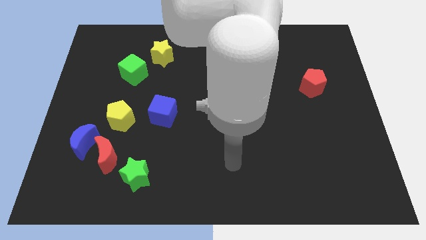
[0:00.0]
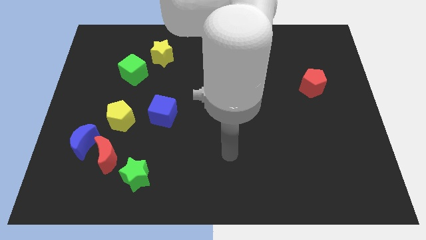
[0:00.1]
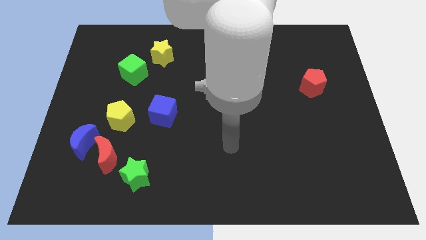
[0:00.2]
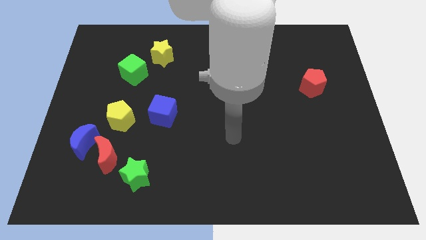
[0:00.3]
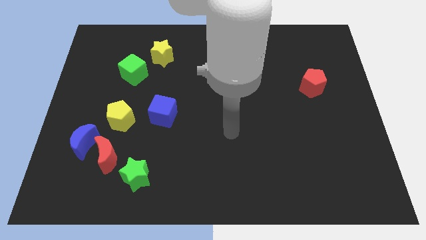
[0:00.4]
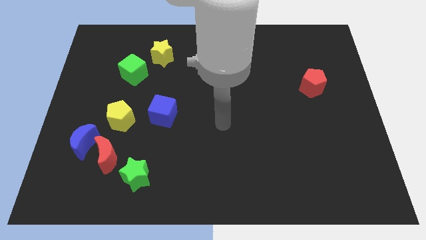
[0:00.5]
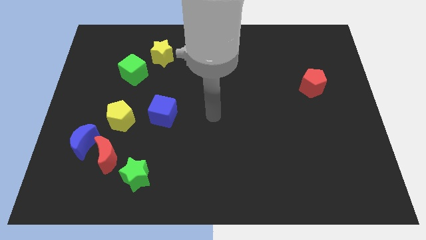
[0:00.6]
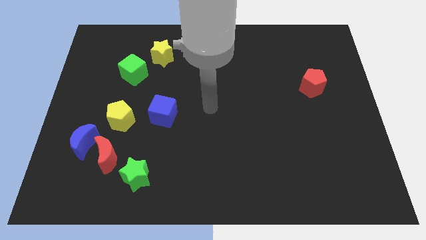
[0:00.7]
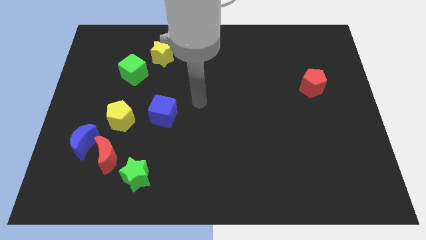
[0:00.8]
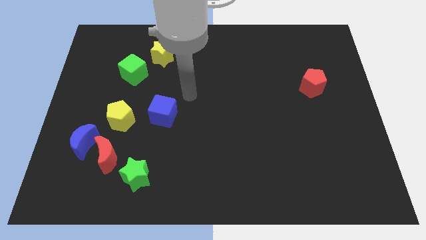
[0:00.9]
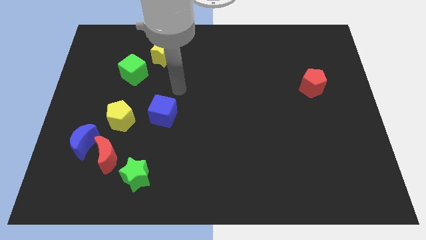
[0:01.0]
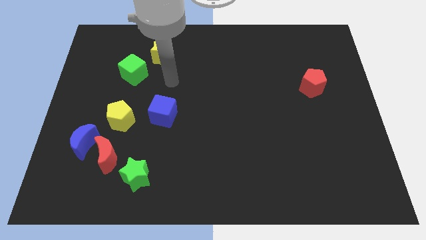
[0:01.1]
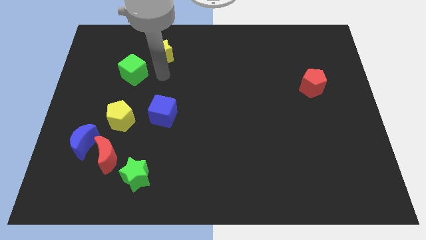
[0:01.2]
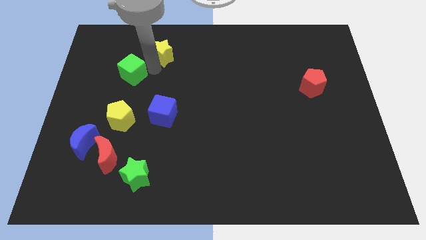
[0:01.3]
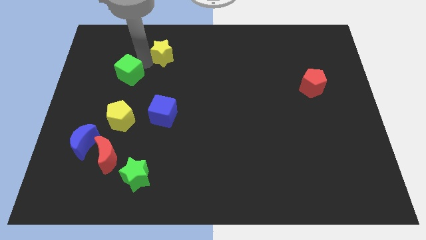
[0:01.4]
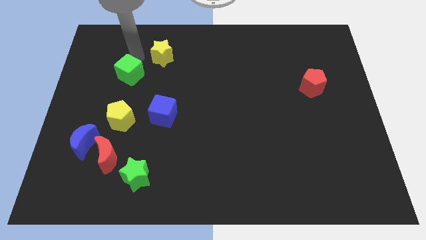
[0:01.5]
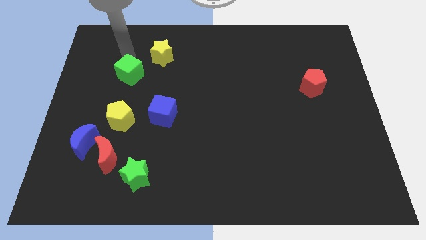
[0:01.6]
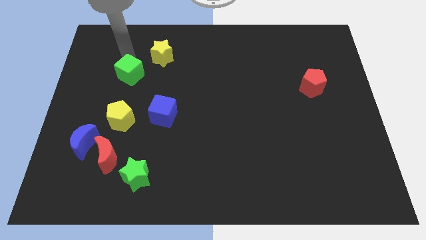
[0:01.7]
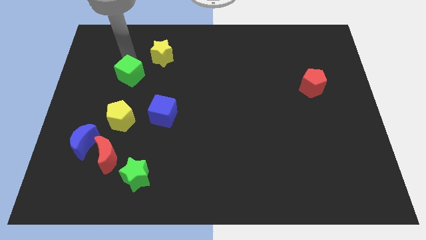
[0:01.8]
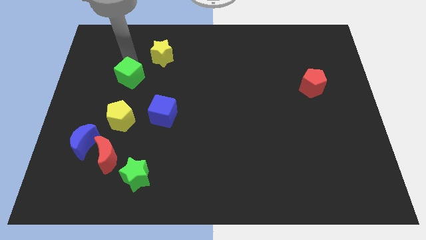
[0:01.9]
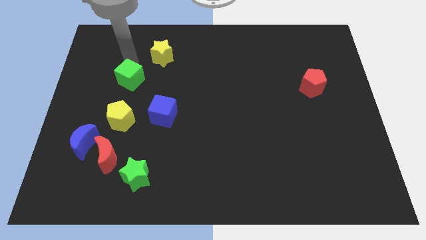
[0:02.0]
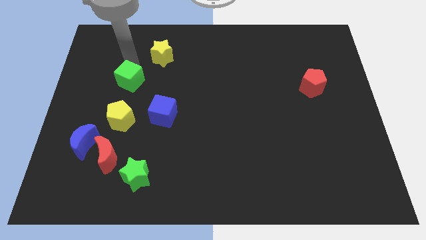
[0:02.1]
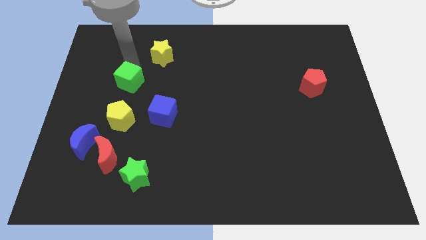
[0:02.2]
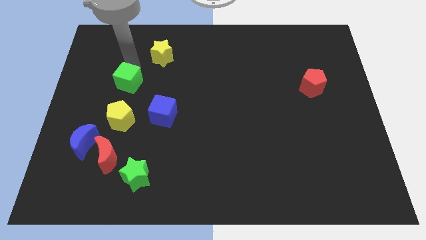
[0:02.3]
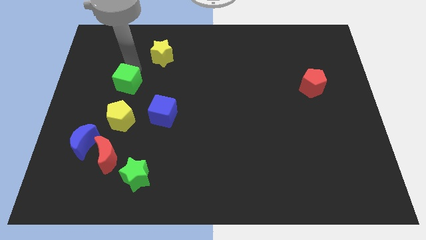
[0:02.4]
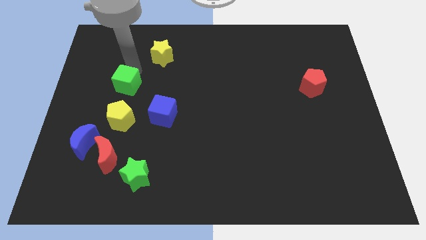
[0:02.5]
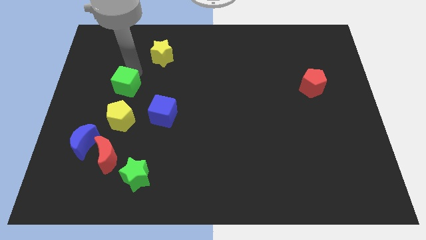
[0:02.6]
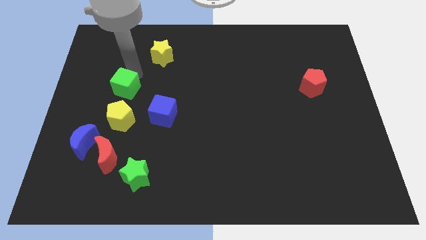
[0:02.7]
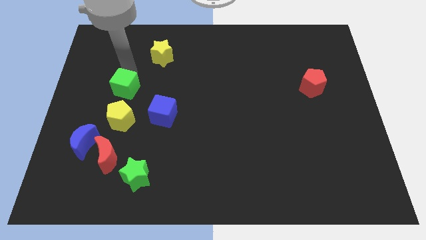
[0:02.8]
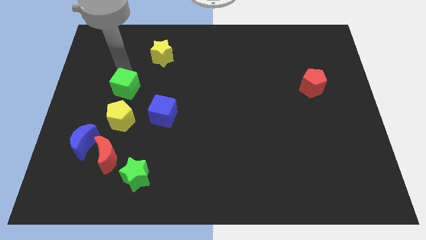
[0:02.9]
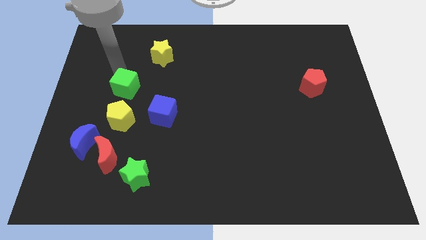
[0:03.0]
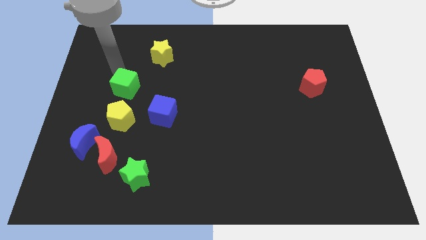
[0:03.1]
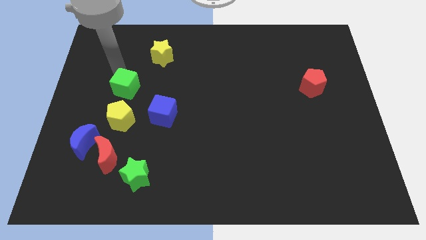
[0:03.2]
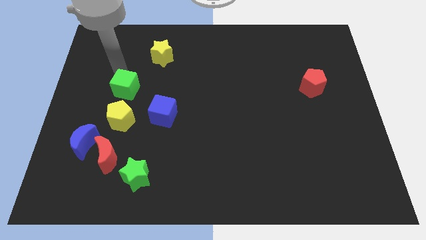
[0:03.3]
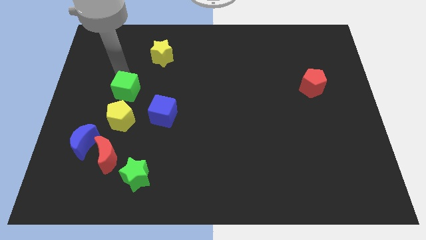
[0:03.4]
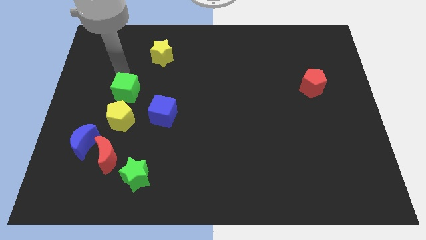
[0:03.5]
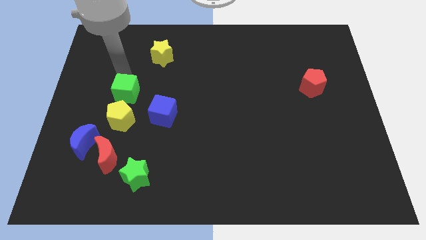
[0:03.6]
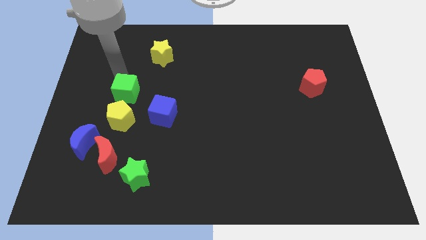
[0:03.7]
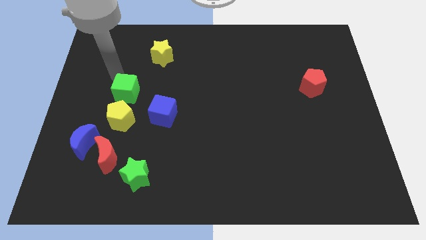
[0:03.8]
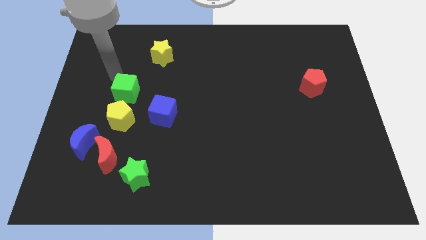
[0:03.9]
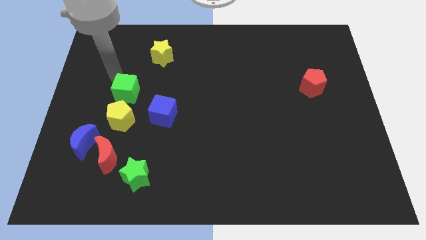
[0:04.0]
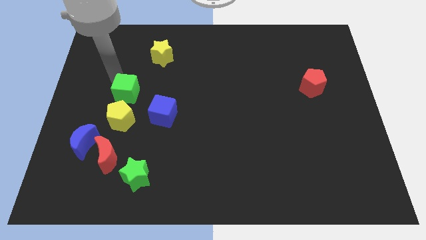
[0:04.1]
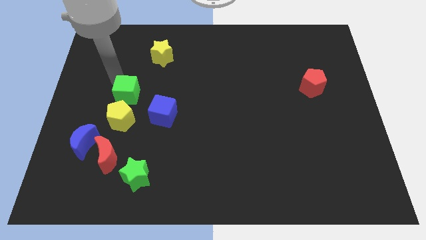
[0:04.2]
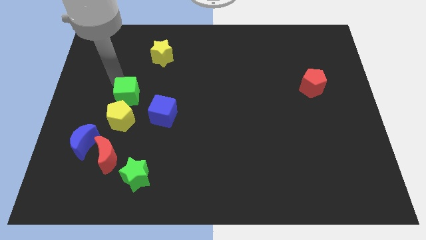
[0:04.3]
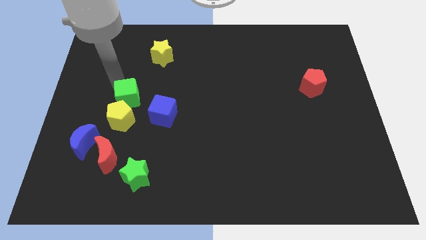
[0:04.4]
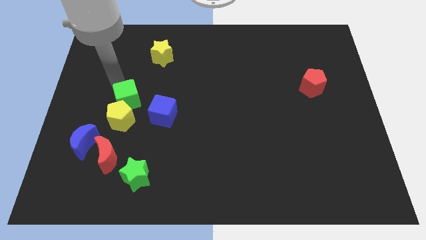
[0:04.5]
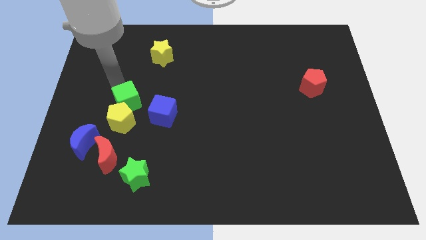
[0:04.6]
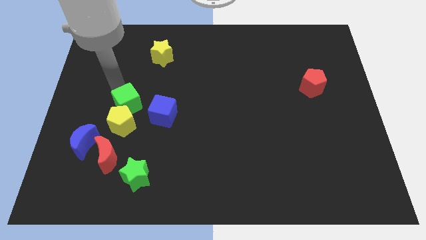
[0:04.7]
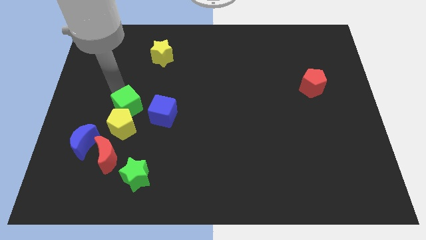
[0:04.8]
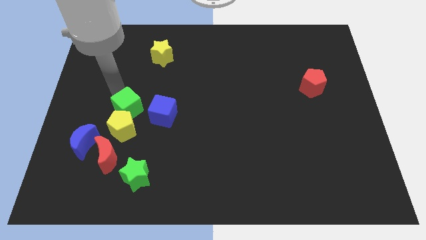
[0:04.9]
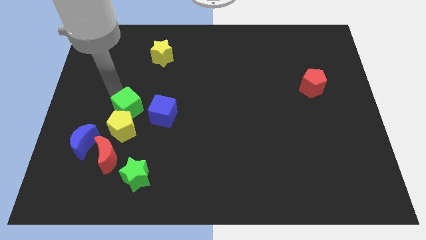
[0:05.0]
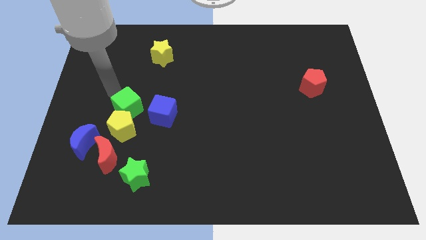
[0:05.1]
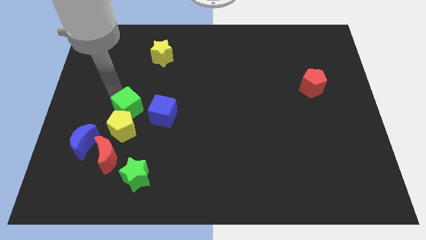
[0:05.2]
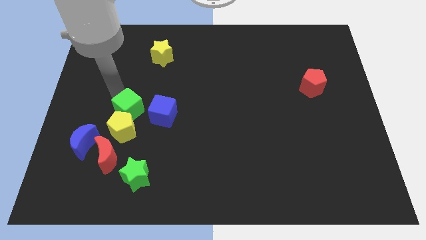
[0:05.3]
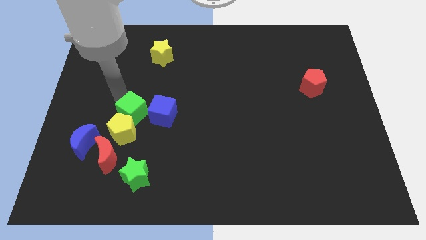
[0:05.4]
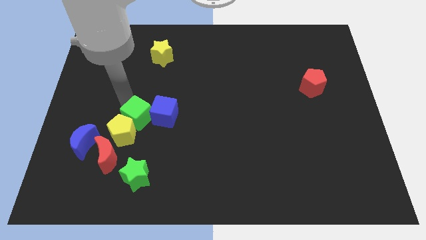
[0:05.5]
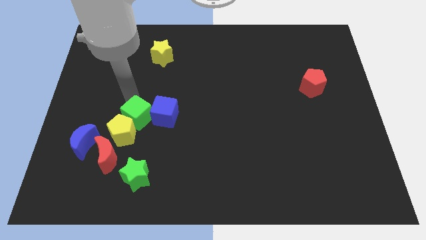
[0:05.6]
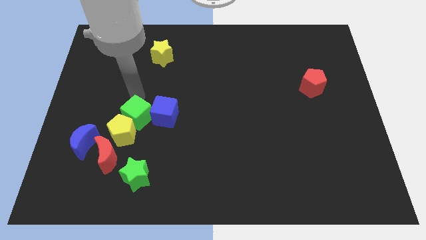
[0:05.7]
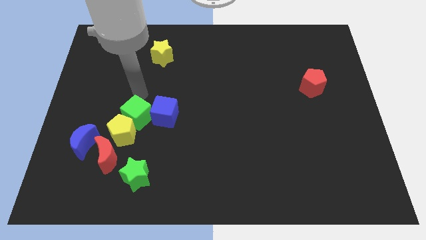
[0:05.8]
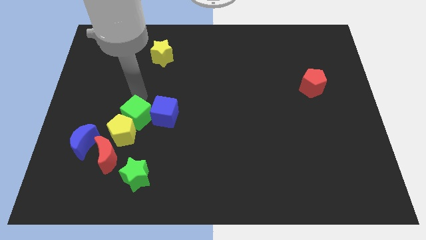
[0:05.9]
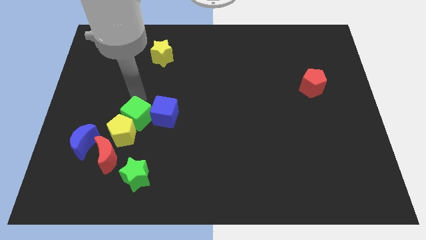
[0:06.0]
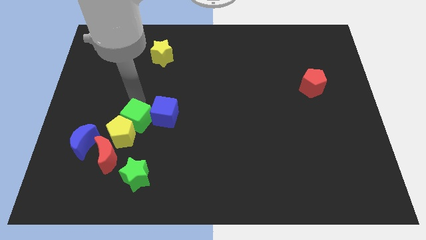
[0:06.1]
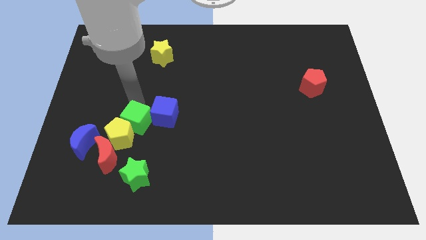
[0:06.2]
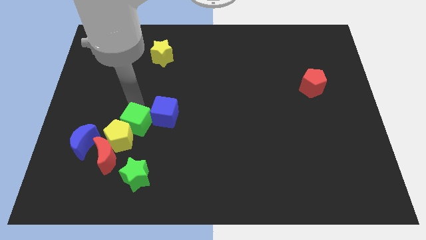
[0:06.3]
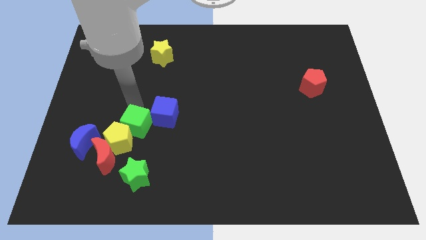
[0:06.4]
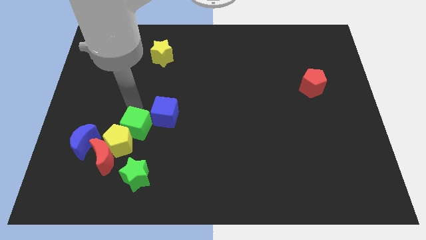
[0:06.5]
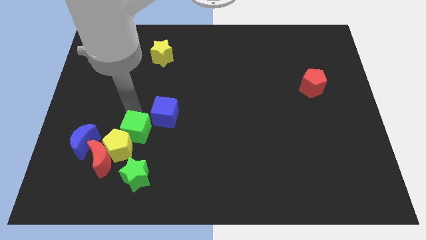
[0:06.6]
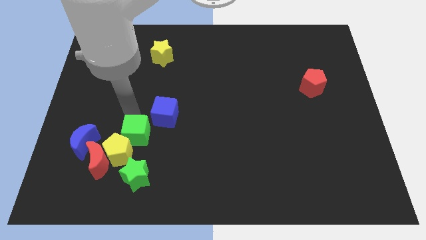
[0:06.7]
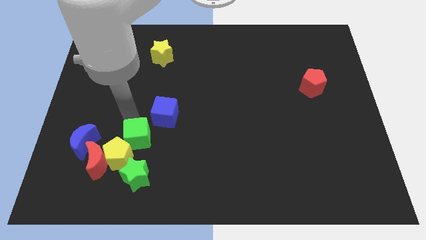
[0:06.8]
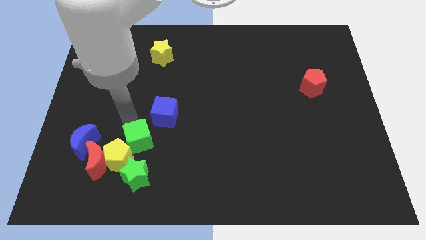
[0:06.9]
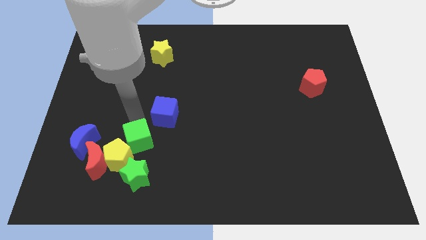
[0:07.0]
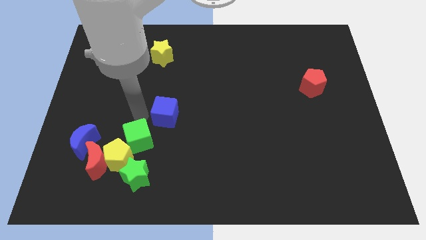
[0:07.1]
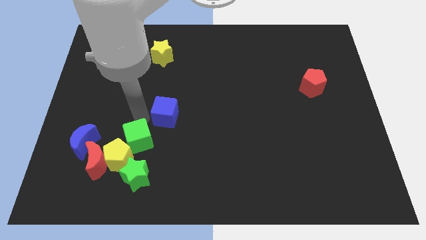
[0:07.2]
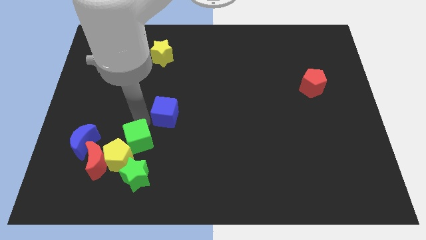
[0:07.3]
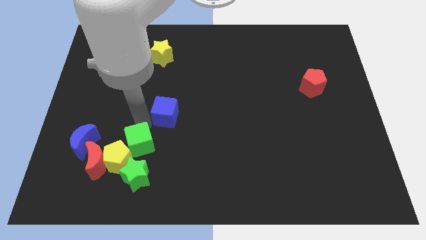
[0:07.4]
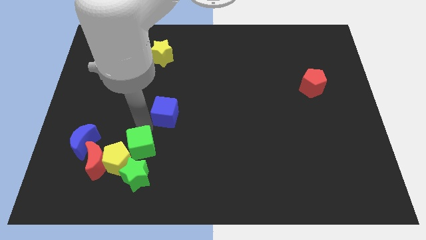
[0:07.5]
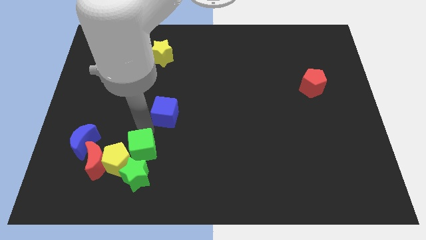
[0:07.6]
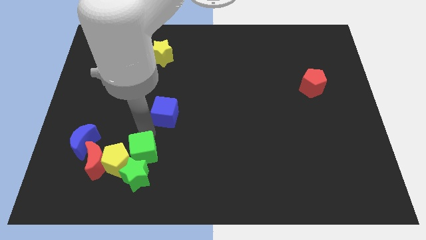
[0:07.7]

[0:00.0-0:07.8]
slide the green cube next to the green star
